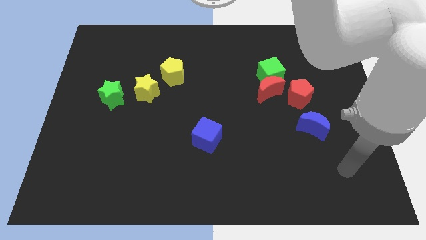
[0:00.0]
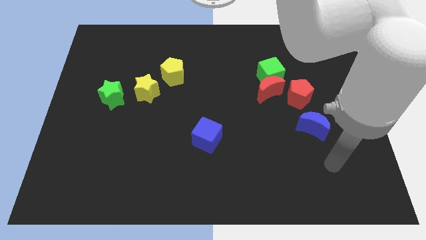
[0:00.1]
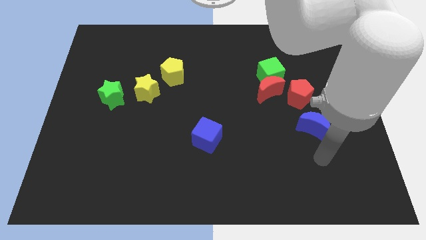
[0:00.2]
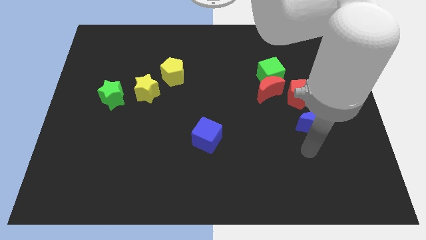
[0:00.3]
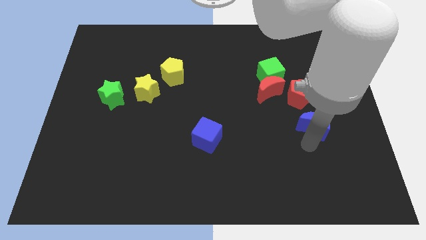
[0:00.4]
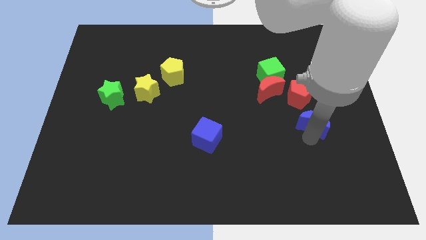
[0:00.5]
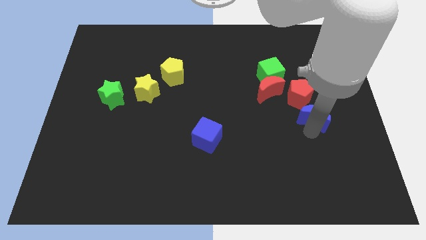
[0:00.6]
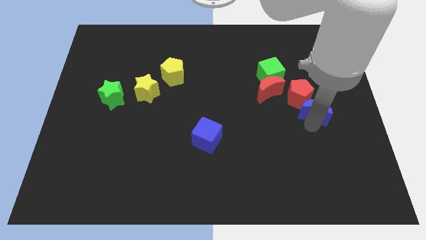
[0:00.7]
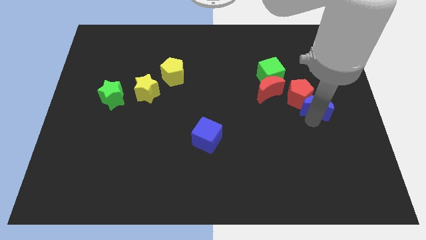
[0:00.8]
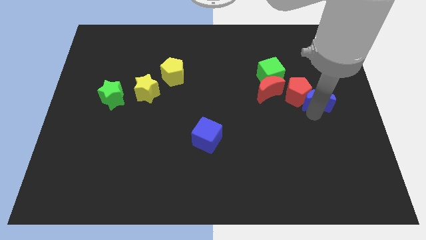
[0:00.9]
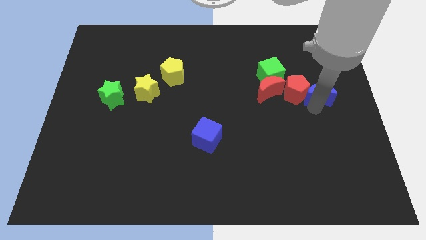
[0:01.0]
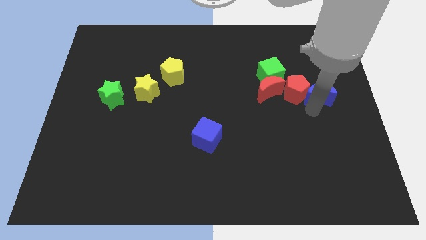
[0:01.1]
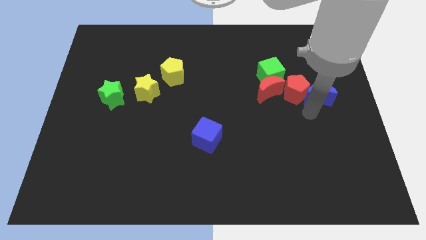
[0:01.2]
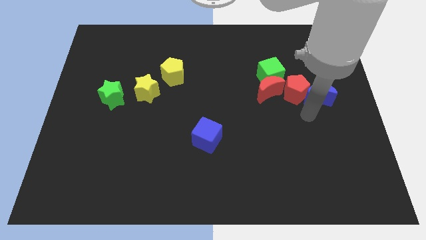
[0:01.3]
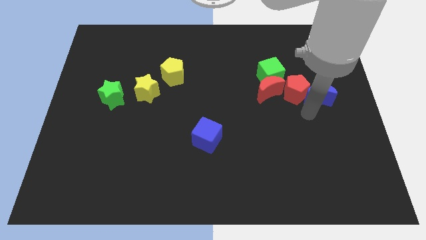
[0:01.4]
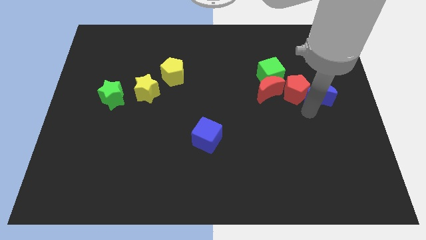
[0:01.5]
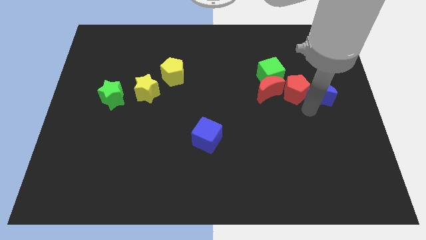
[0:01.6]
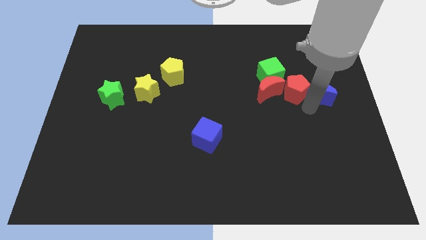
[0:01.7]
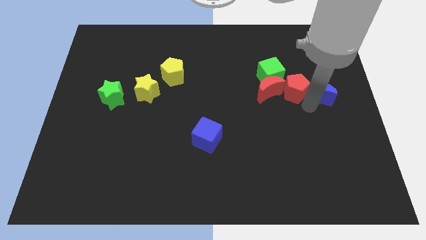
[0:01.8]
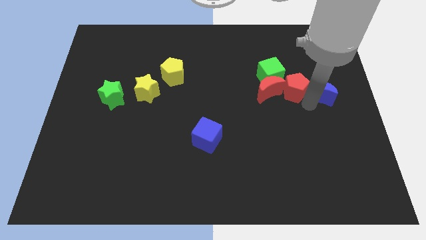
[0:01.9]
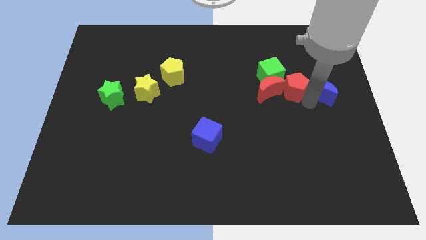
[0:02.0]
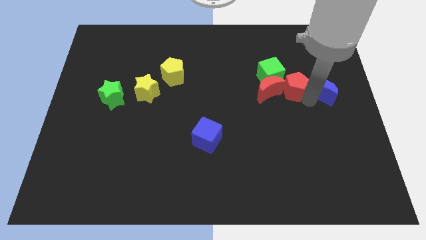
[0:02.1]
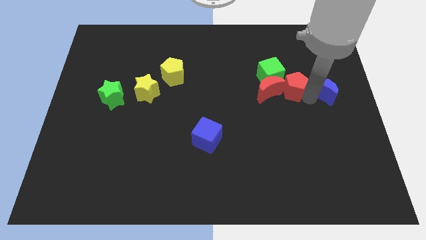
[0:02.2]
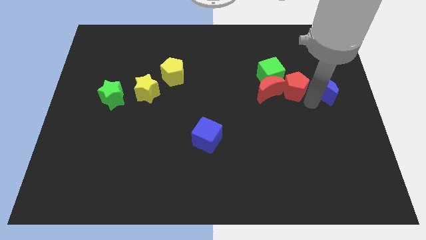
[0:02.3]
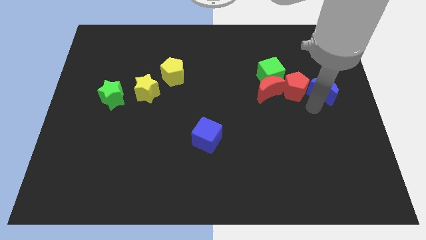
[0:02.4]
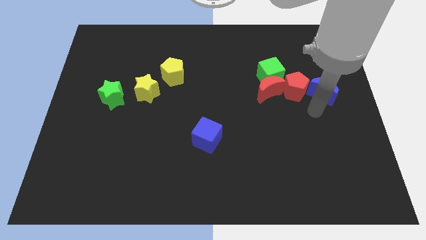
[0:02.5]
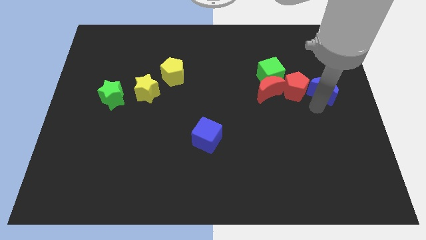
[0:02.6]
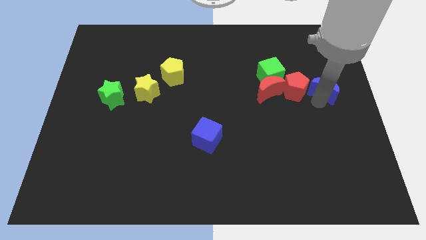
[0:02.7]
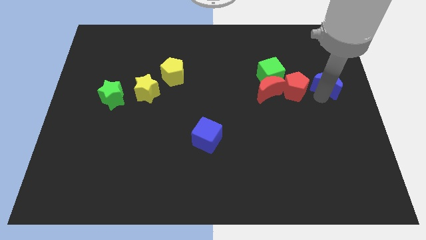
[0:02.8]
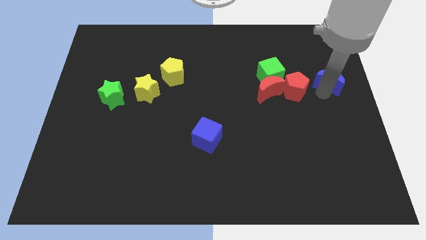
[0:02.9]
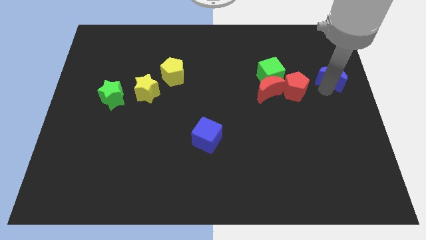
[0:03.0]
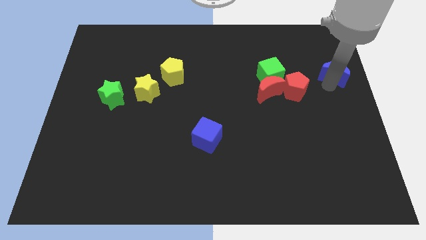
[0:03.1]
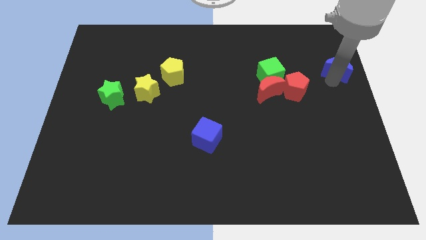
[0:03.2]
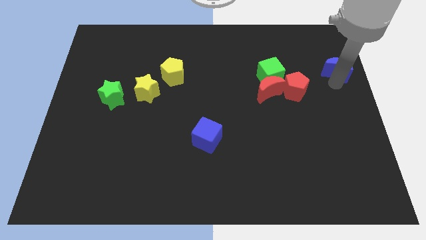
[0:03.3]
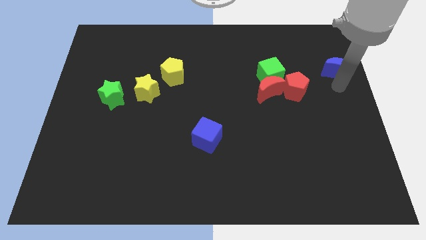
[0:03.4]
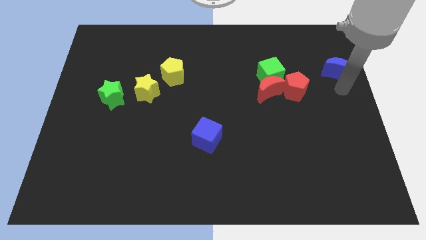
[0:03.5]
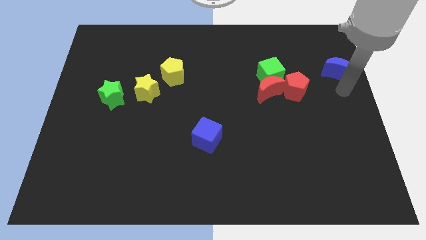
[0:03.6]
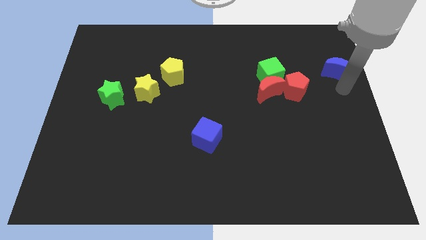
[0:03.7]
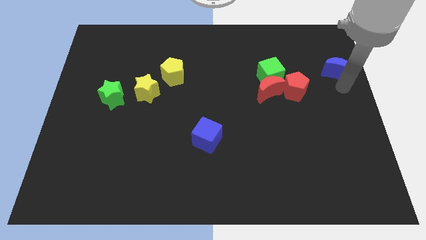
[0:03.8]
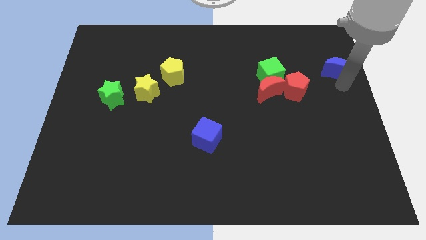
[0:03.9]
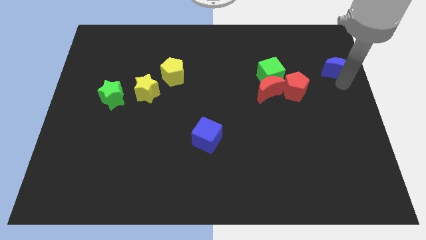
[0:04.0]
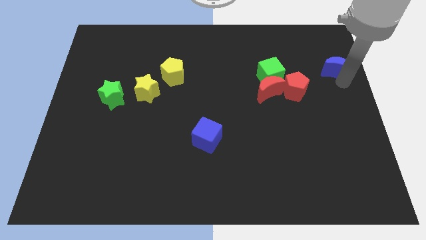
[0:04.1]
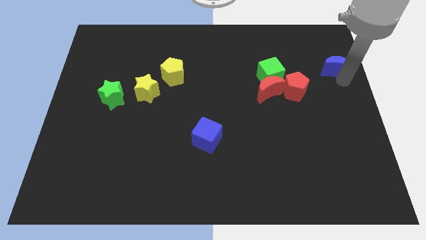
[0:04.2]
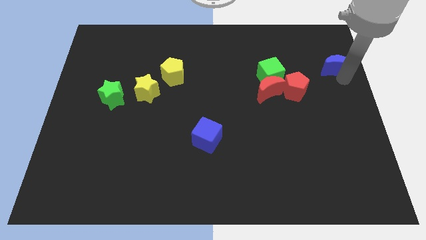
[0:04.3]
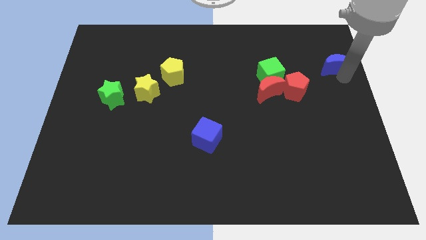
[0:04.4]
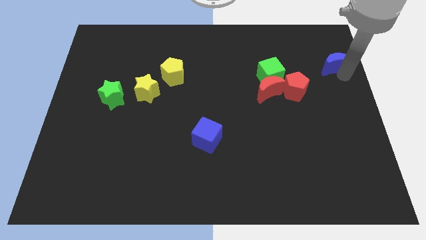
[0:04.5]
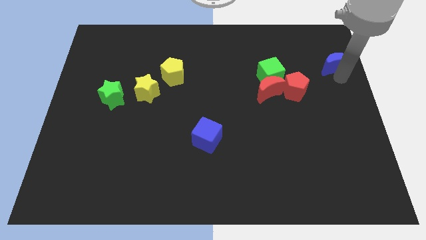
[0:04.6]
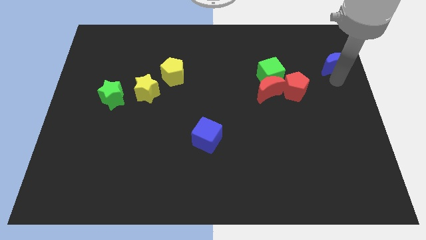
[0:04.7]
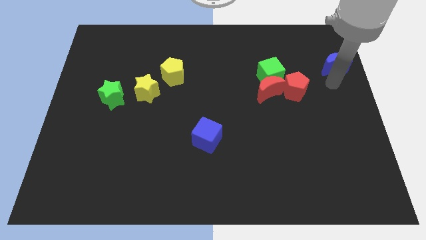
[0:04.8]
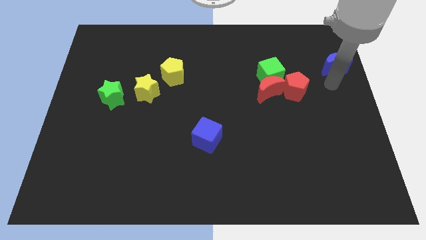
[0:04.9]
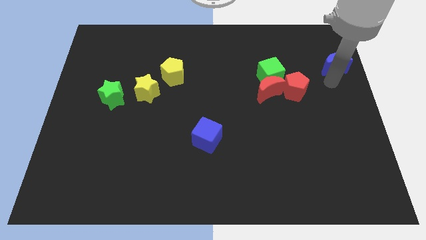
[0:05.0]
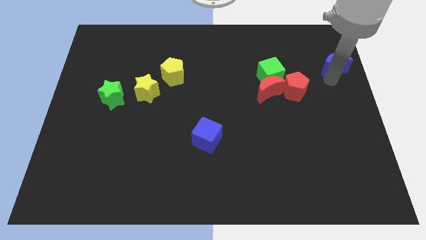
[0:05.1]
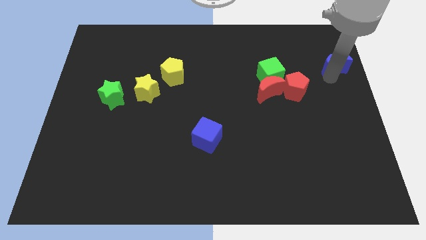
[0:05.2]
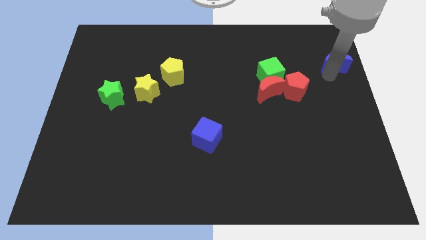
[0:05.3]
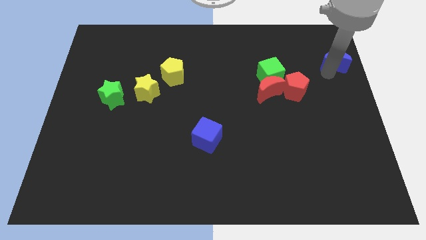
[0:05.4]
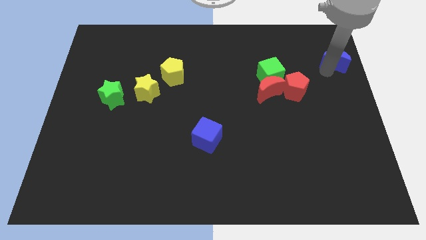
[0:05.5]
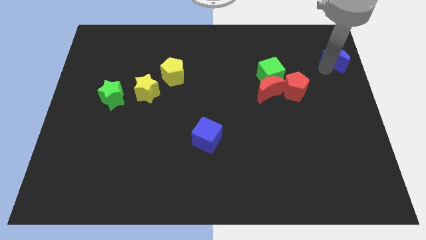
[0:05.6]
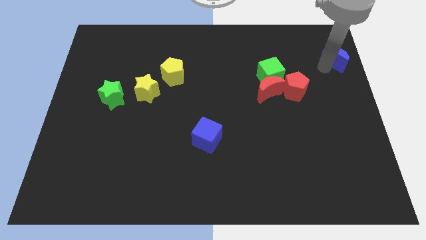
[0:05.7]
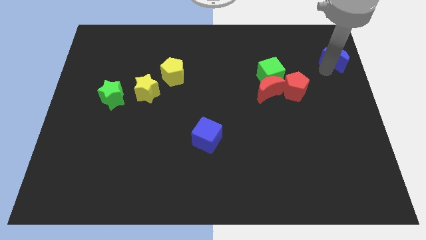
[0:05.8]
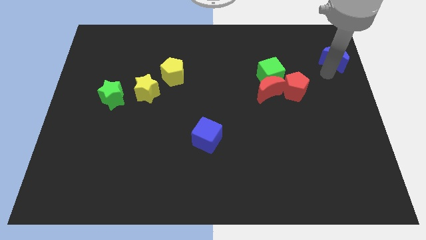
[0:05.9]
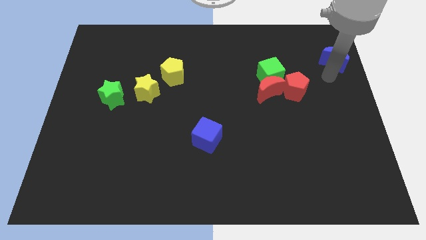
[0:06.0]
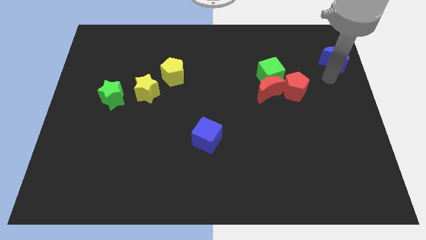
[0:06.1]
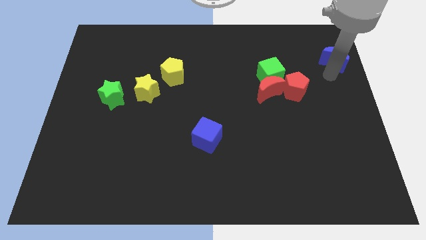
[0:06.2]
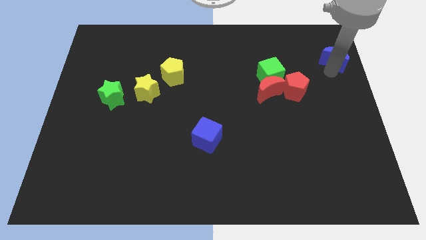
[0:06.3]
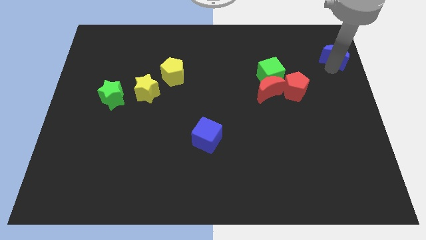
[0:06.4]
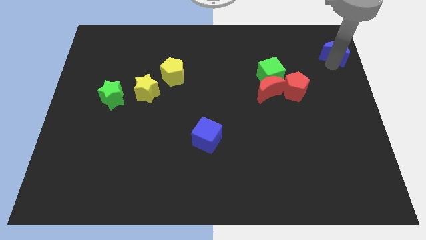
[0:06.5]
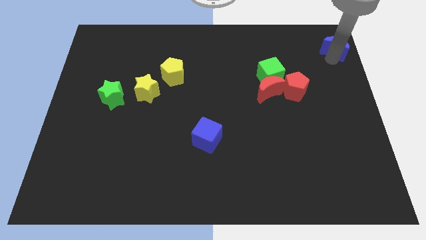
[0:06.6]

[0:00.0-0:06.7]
slide the blue moon to the top right corner
